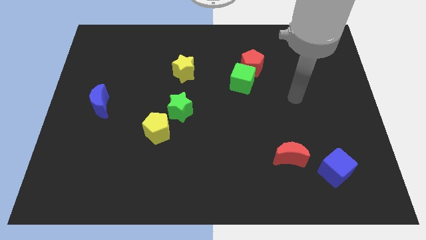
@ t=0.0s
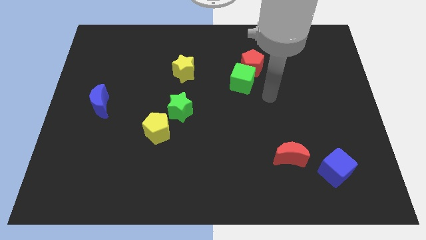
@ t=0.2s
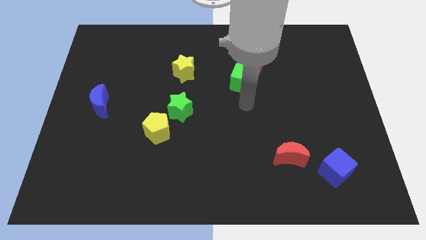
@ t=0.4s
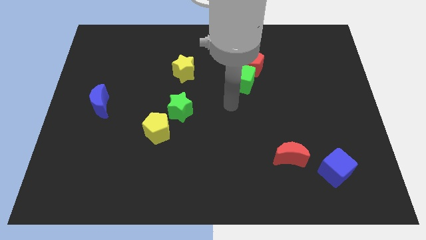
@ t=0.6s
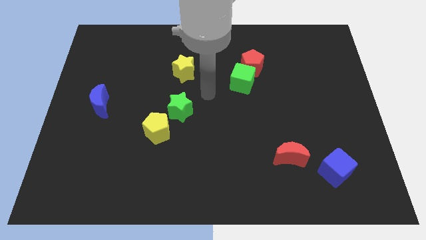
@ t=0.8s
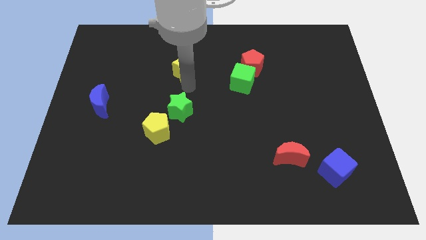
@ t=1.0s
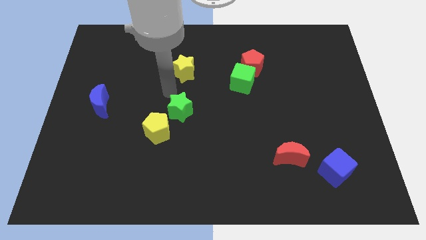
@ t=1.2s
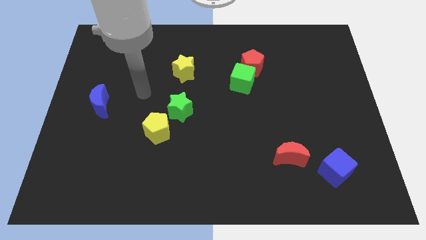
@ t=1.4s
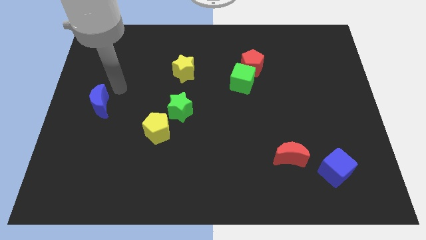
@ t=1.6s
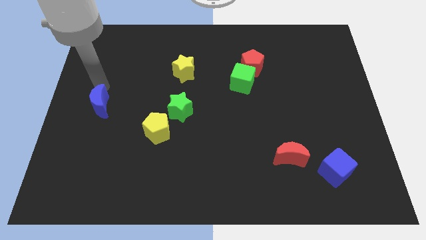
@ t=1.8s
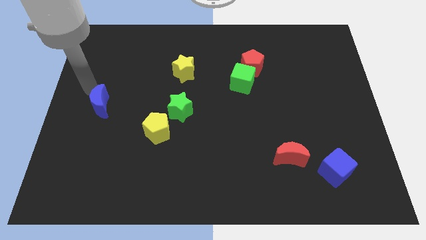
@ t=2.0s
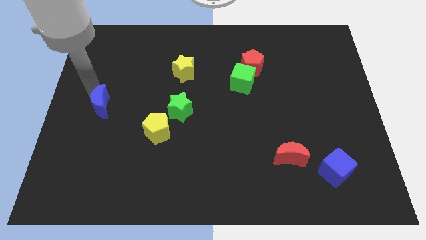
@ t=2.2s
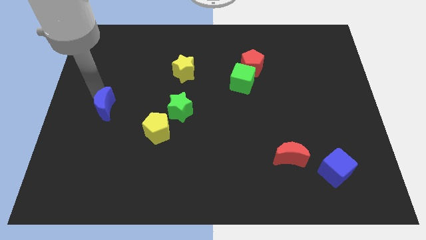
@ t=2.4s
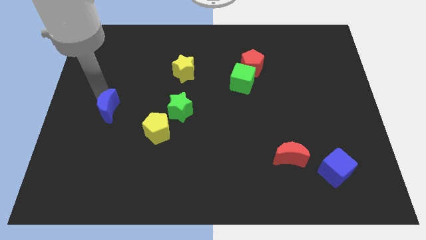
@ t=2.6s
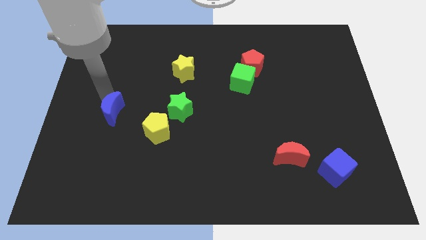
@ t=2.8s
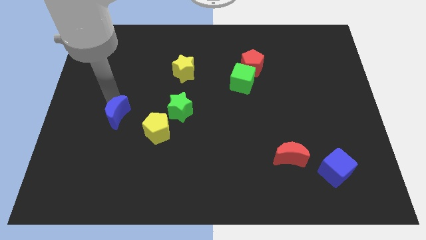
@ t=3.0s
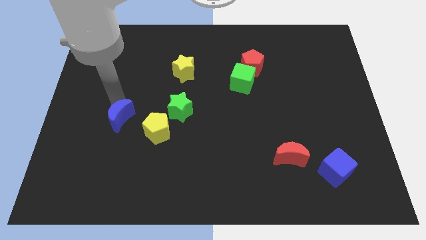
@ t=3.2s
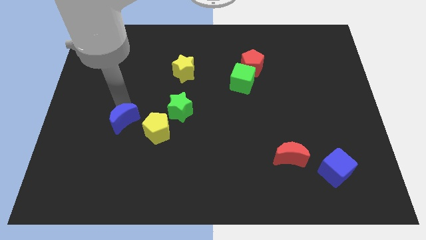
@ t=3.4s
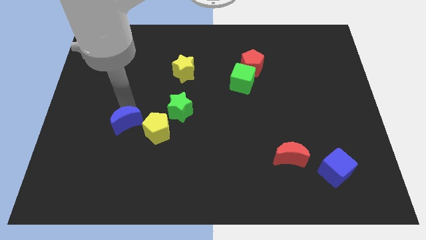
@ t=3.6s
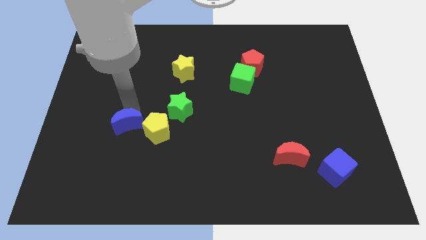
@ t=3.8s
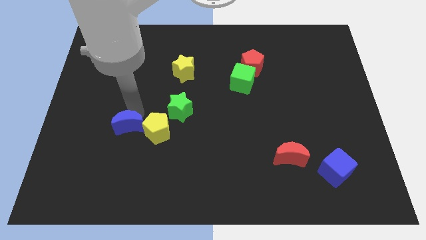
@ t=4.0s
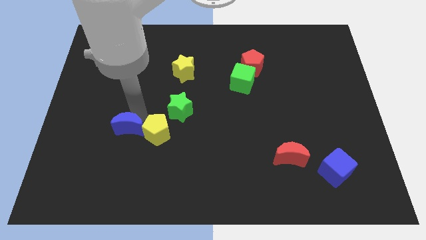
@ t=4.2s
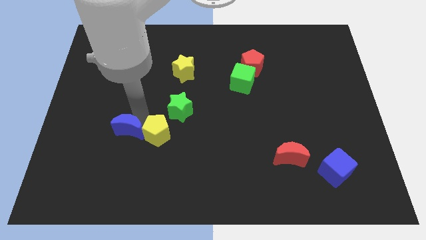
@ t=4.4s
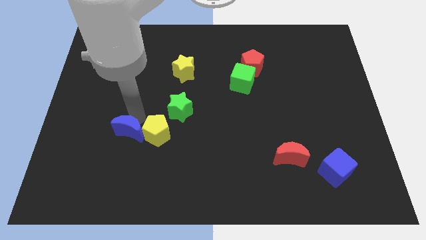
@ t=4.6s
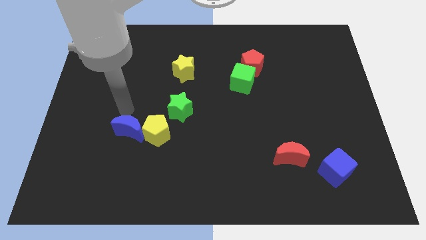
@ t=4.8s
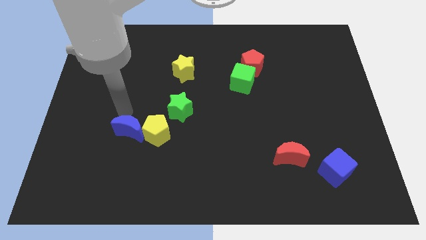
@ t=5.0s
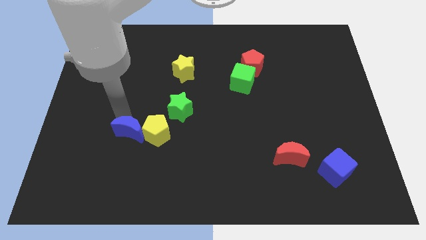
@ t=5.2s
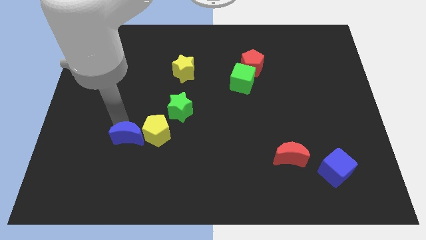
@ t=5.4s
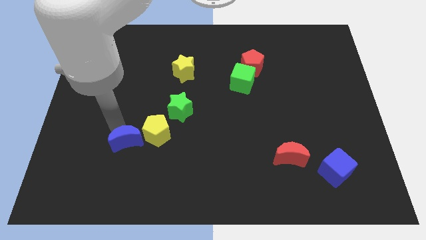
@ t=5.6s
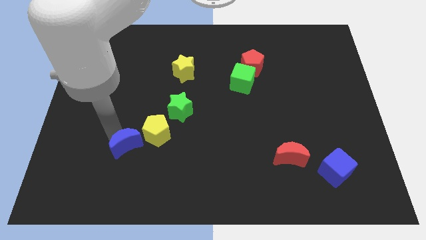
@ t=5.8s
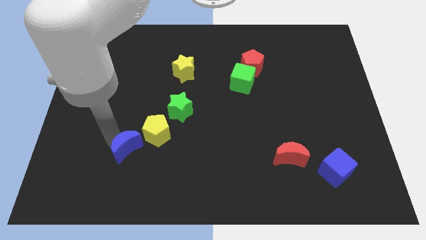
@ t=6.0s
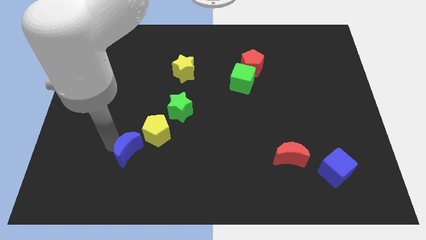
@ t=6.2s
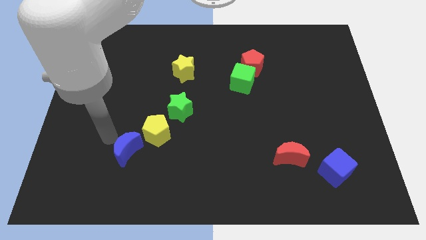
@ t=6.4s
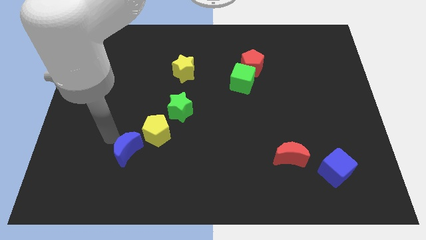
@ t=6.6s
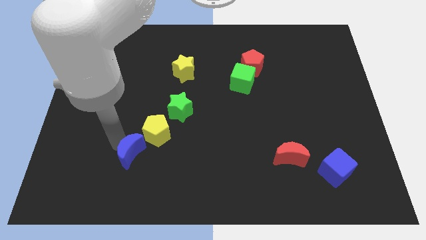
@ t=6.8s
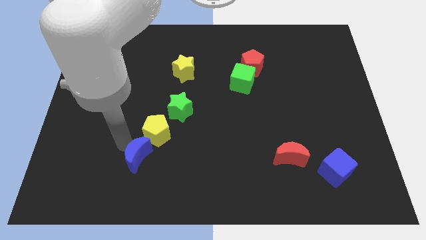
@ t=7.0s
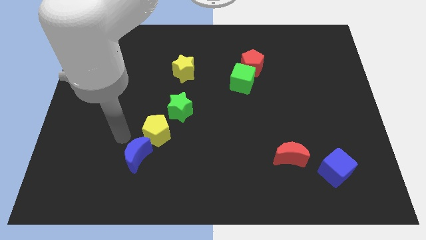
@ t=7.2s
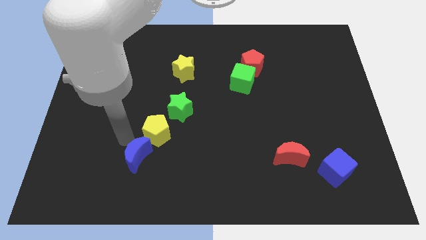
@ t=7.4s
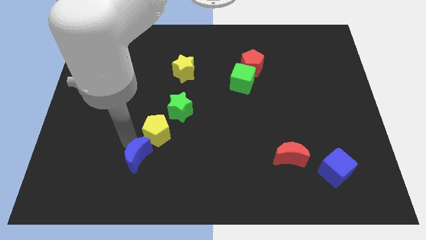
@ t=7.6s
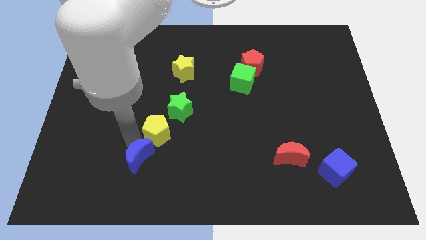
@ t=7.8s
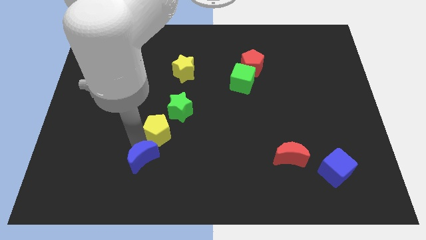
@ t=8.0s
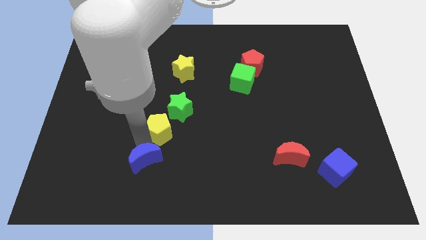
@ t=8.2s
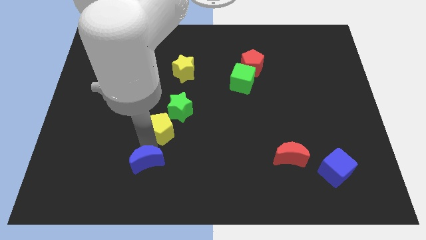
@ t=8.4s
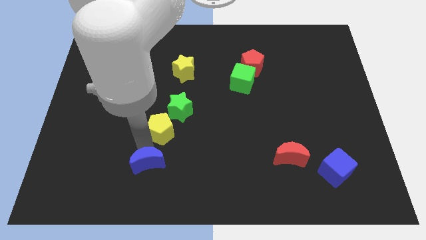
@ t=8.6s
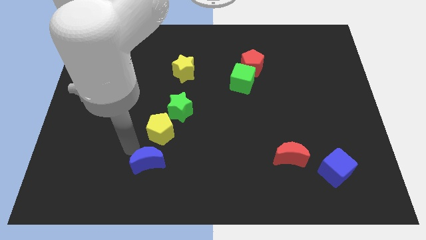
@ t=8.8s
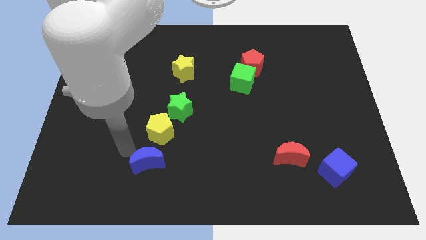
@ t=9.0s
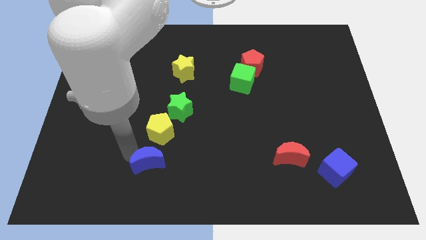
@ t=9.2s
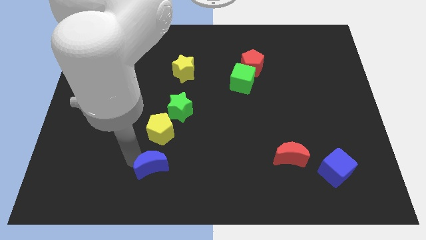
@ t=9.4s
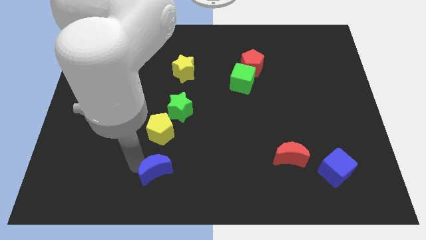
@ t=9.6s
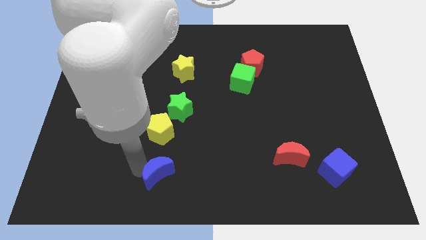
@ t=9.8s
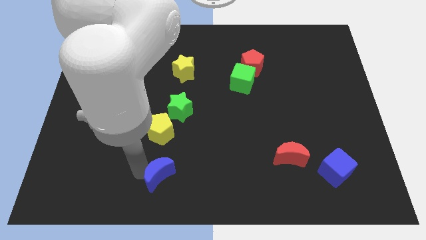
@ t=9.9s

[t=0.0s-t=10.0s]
slide the blue moon to the bottom
